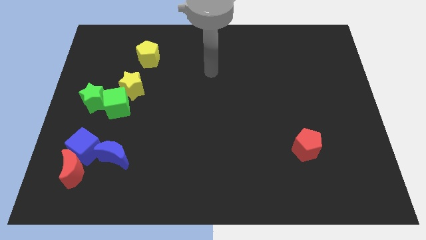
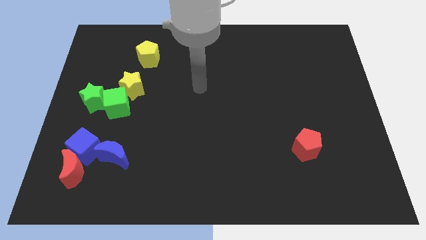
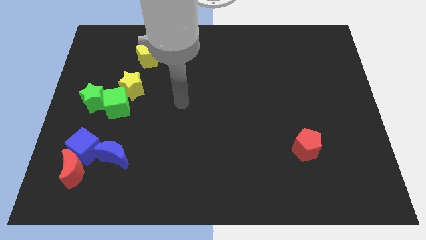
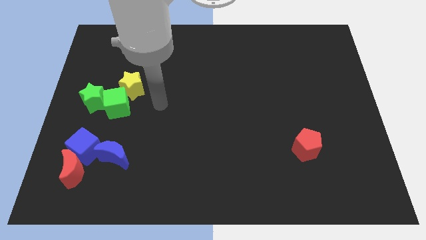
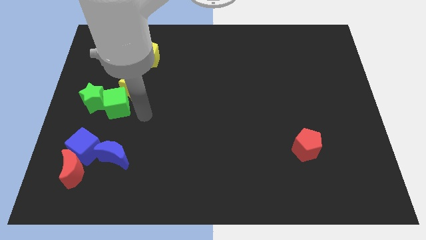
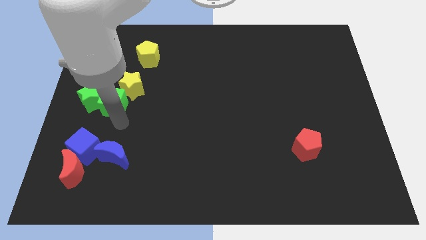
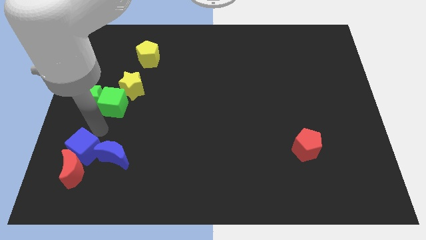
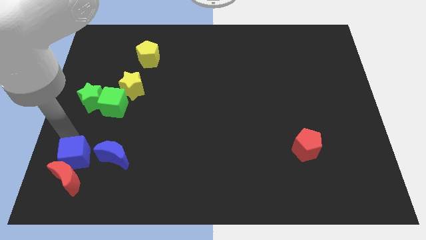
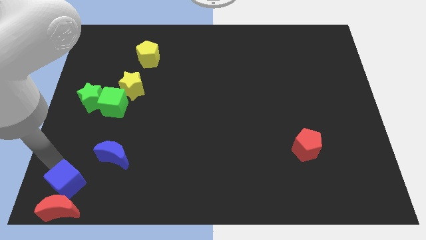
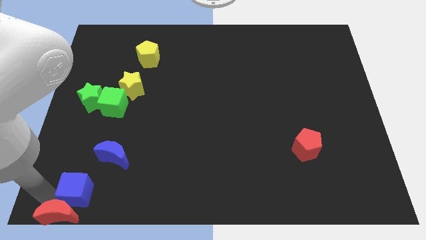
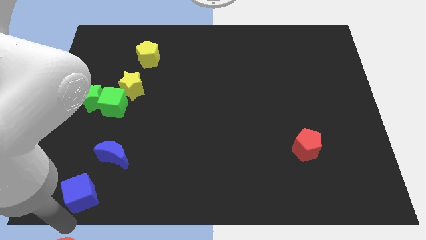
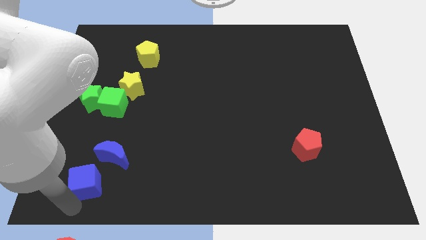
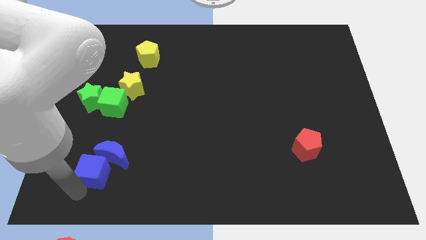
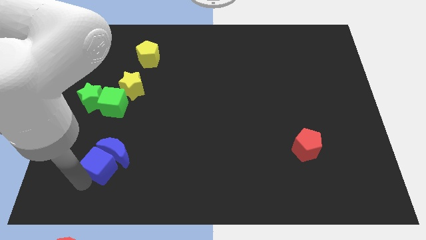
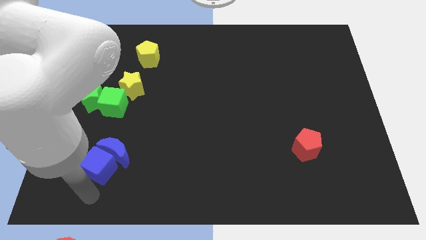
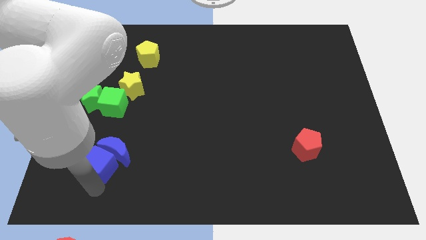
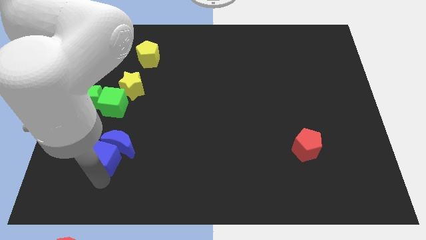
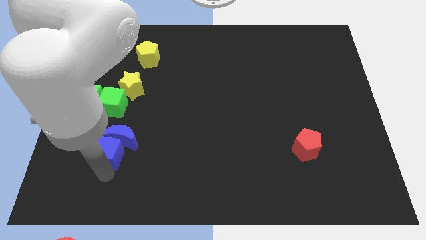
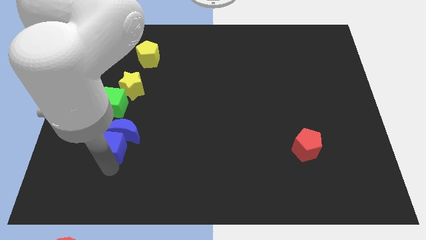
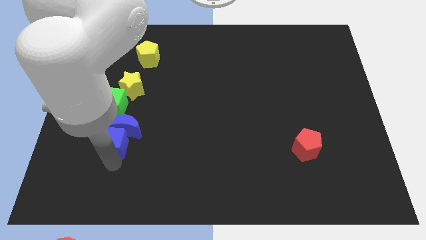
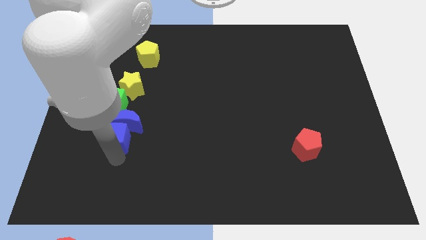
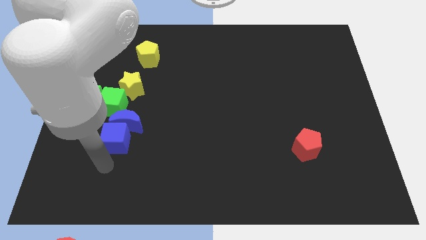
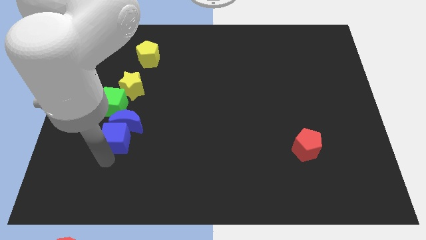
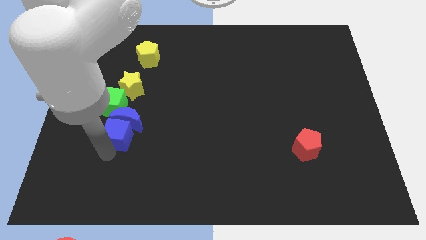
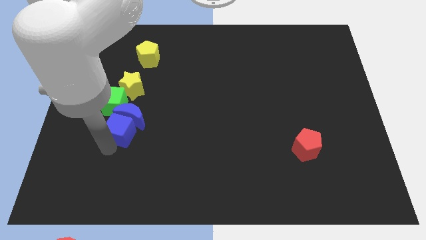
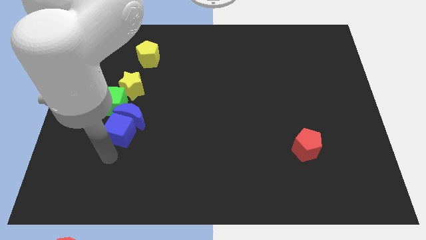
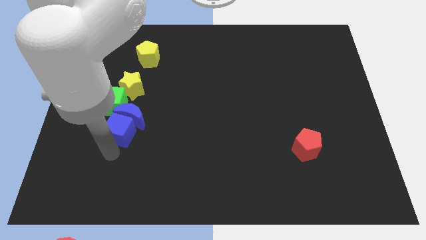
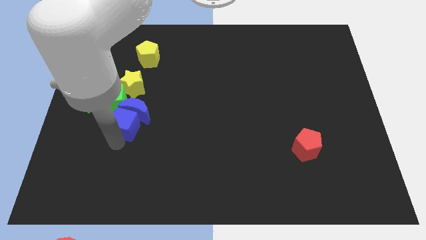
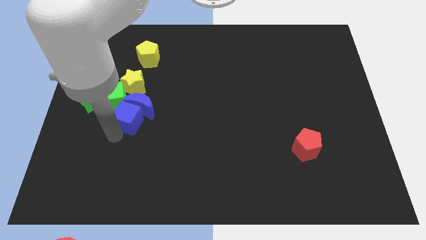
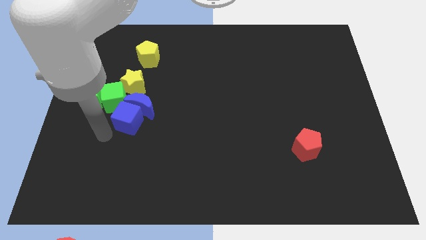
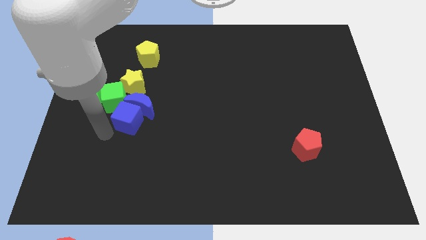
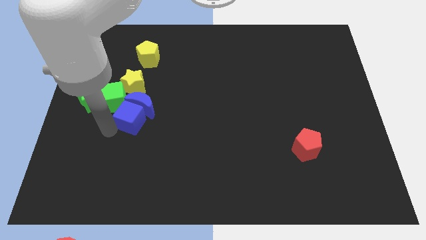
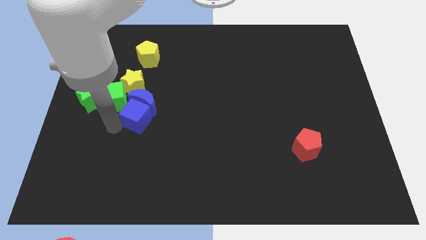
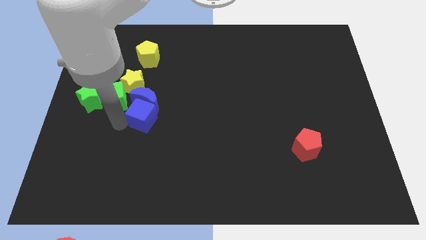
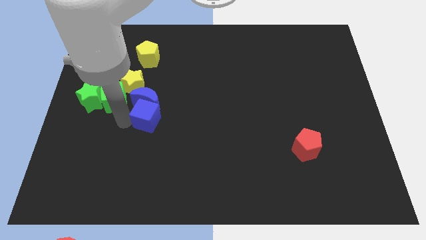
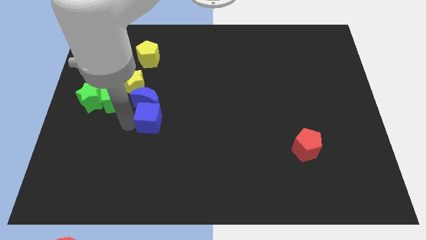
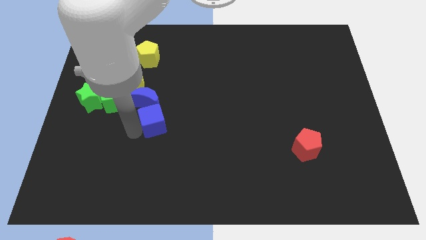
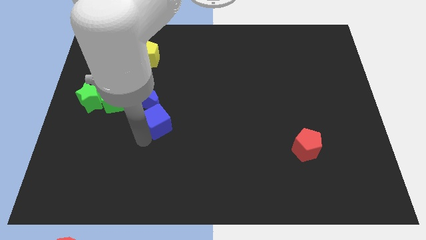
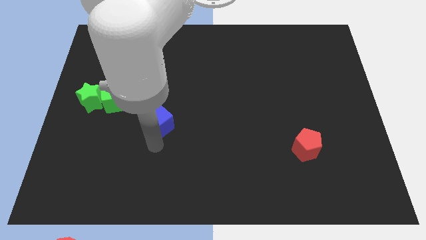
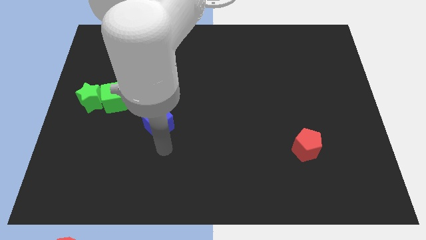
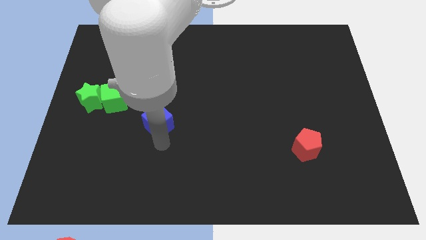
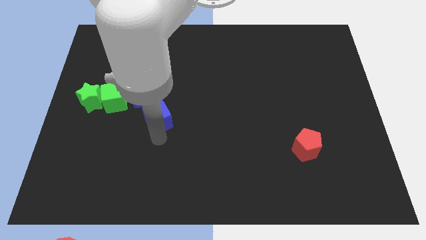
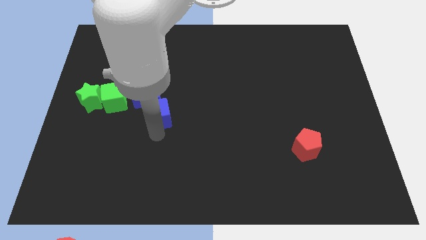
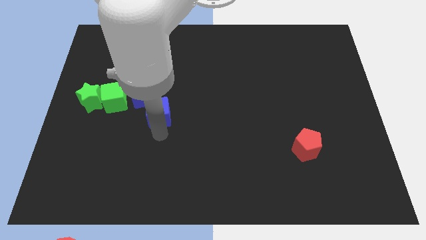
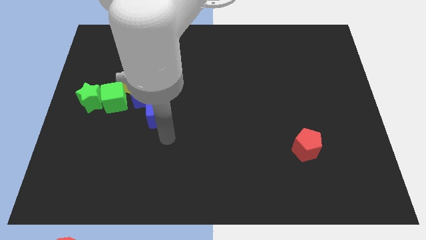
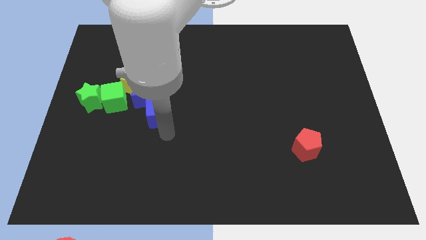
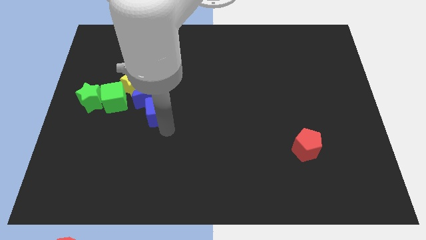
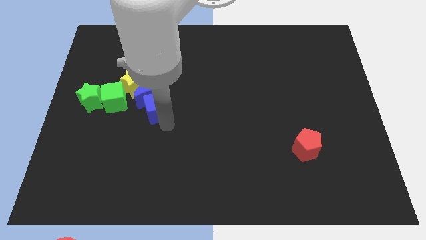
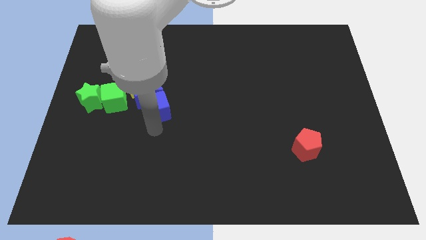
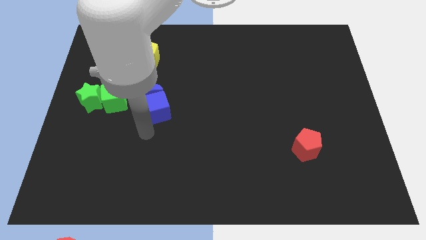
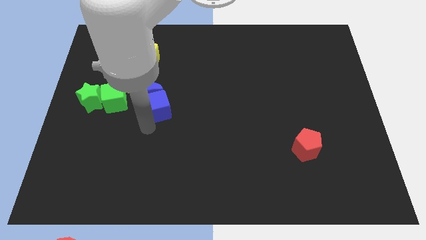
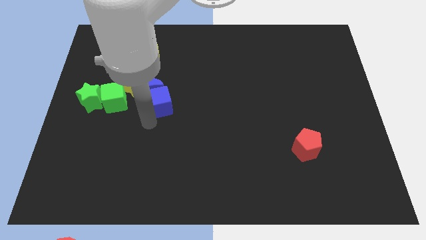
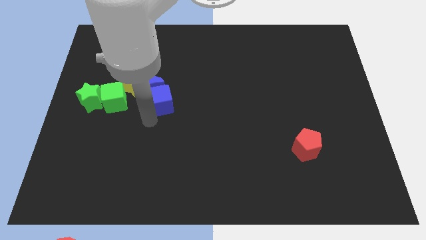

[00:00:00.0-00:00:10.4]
move the blue cube upwards and then right

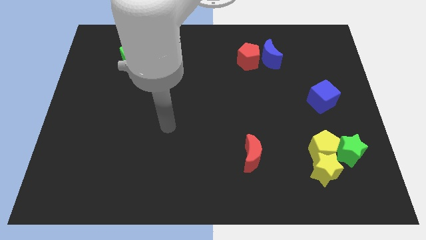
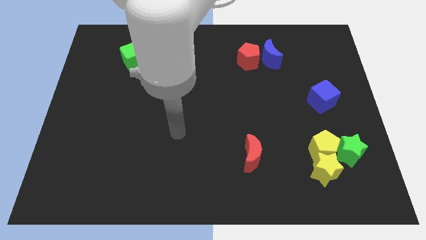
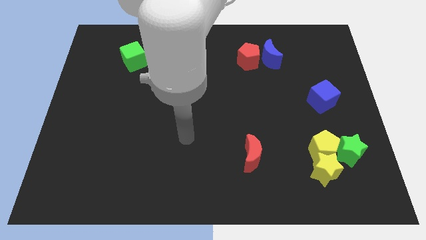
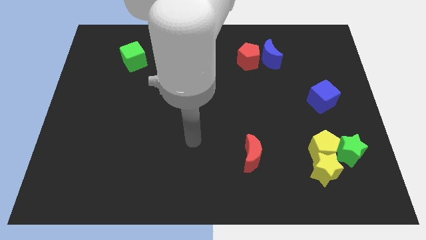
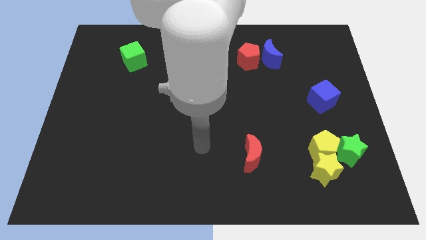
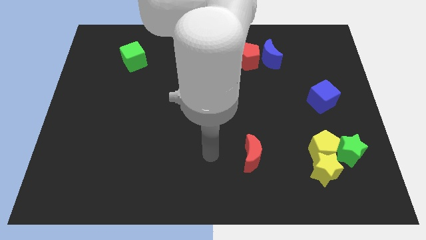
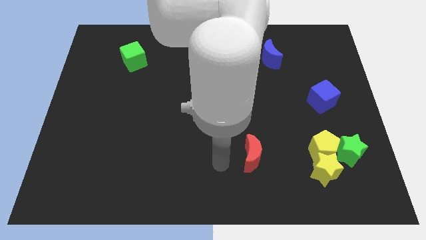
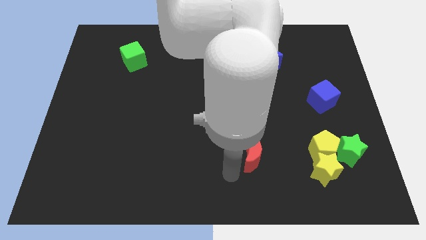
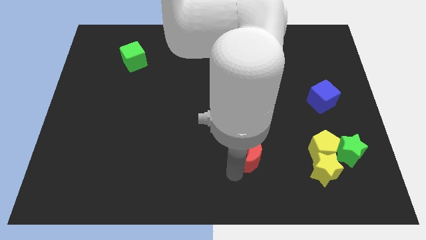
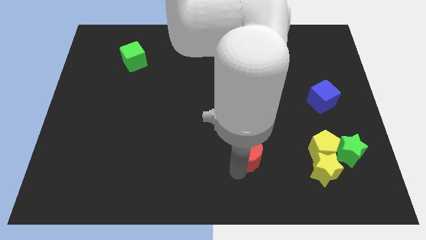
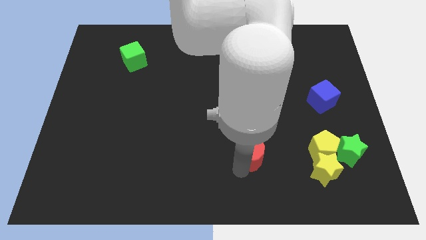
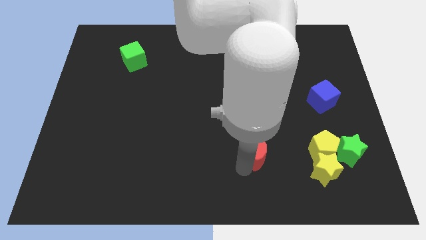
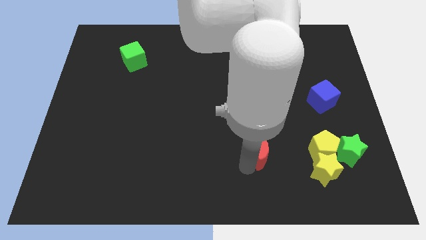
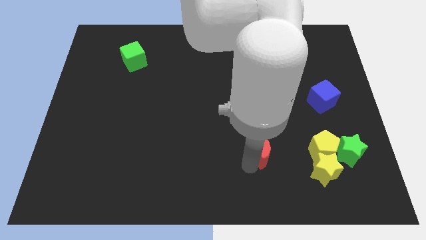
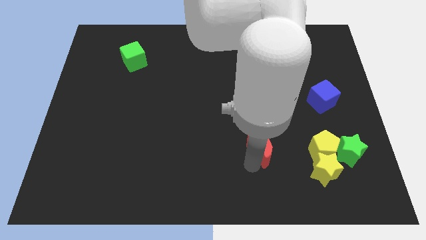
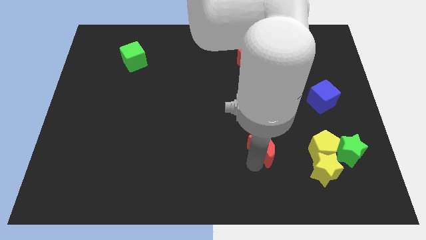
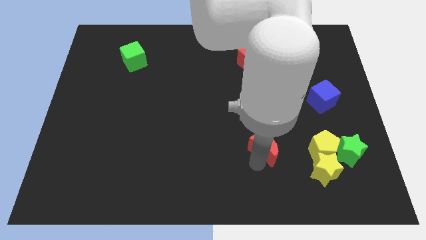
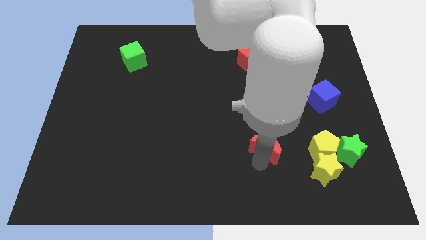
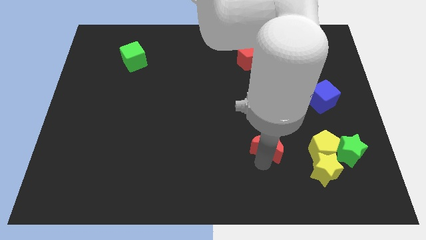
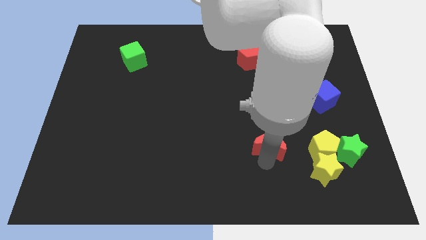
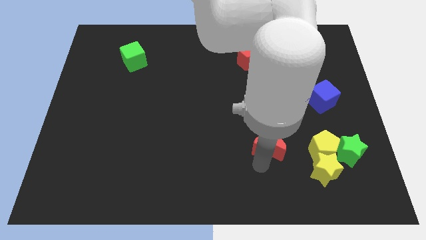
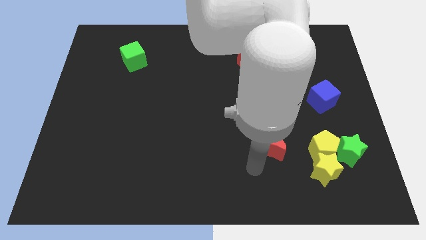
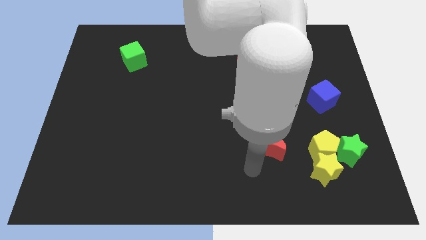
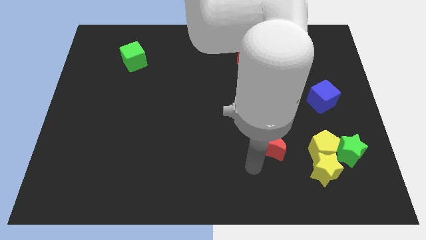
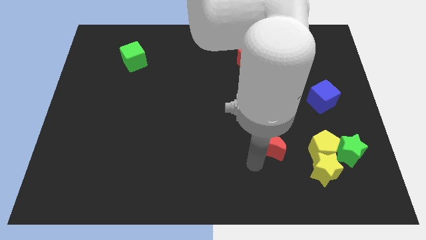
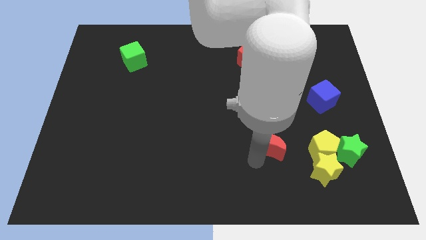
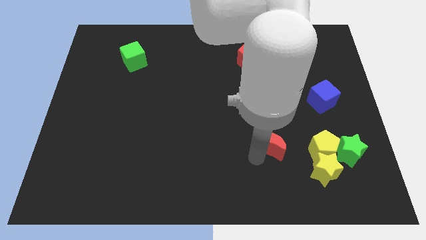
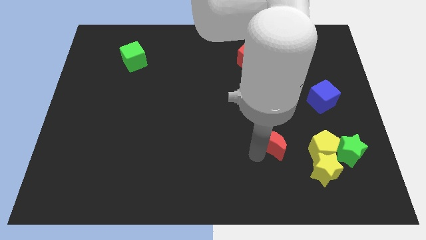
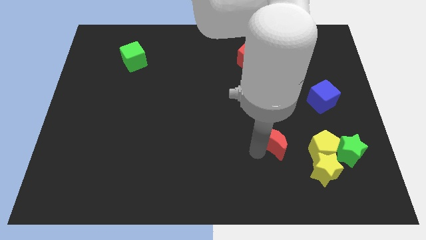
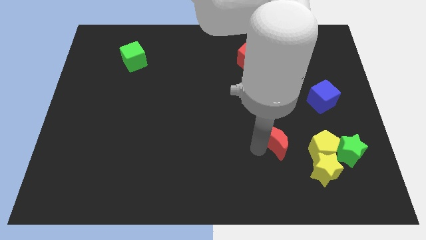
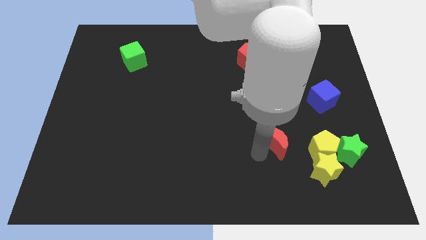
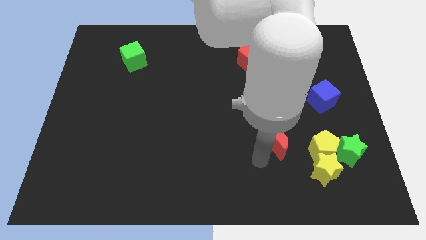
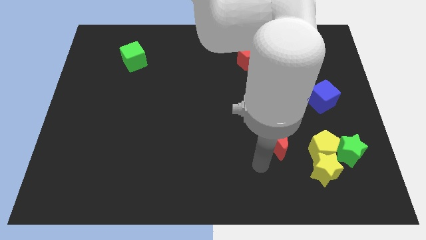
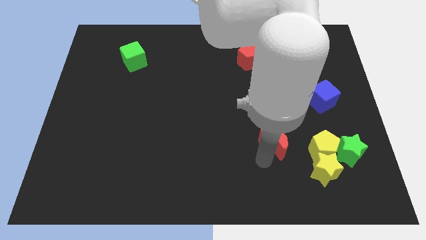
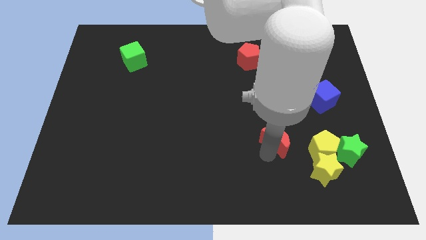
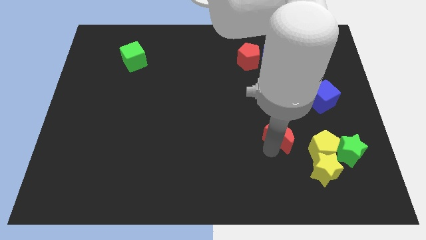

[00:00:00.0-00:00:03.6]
slide the red moon a little bit upwards and to the right
